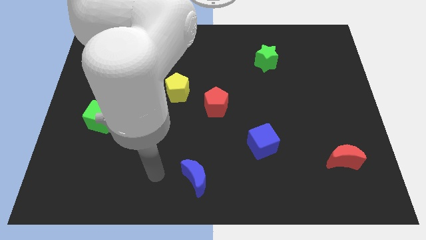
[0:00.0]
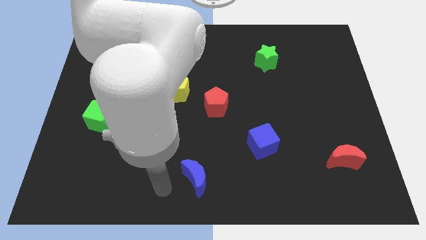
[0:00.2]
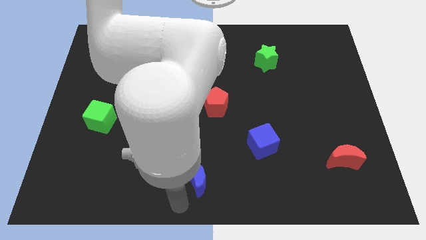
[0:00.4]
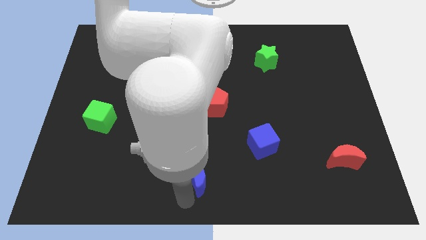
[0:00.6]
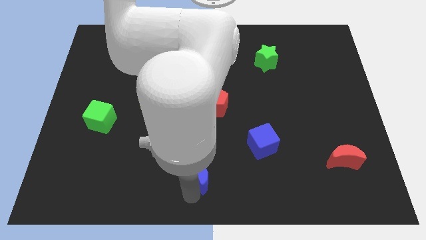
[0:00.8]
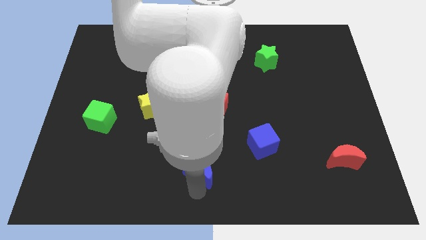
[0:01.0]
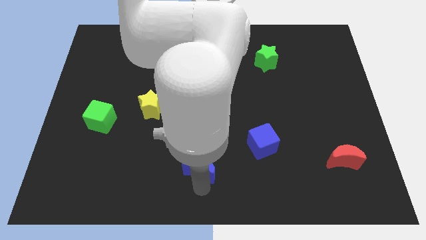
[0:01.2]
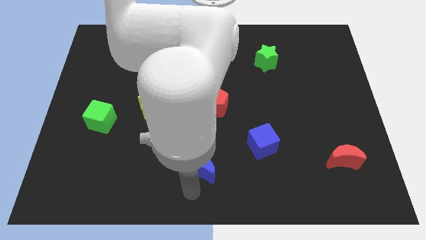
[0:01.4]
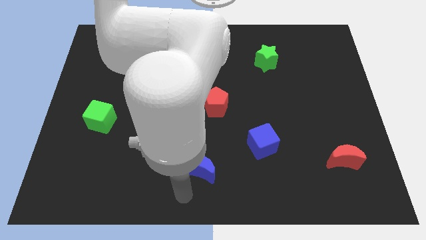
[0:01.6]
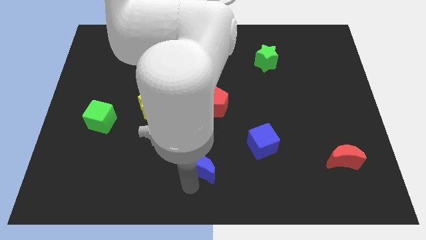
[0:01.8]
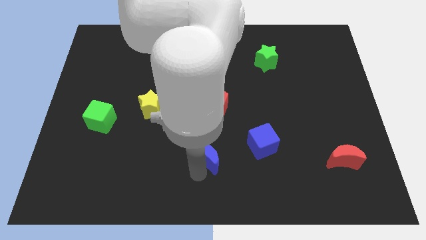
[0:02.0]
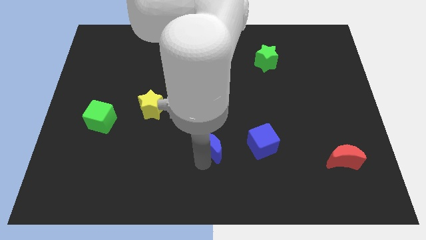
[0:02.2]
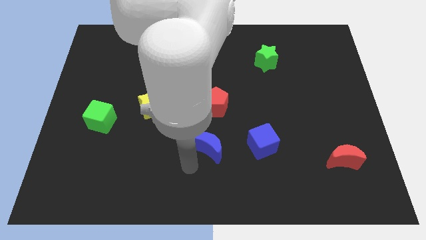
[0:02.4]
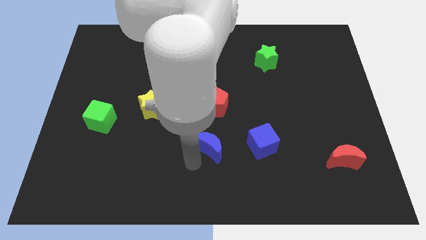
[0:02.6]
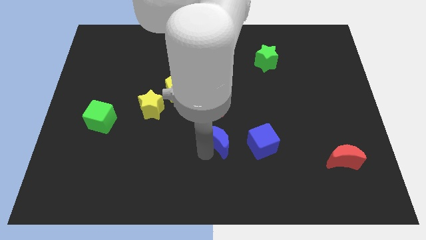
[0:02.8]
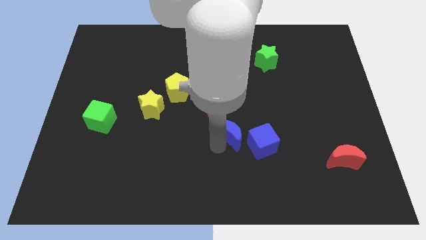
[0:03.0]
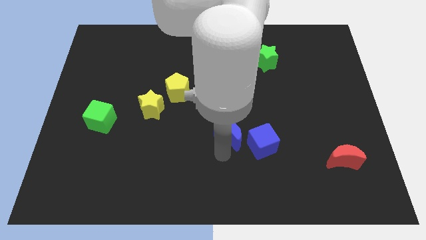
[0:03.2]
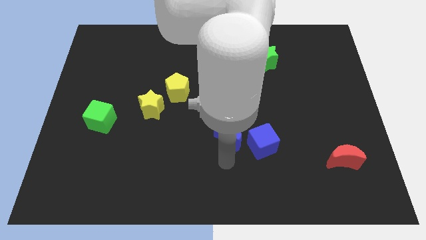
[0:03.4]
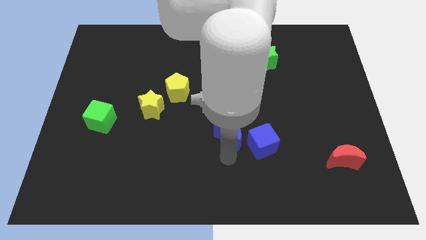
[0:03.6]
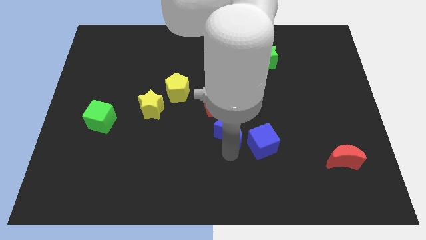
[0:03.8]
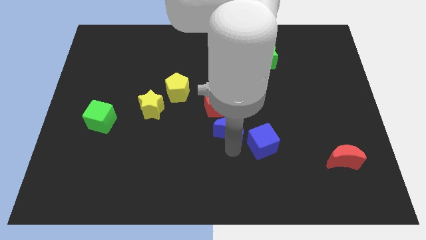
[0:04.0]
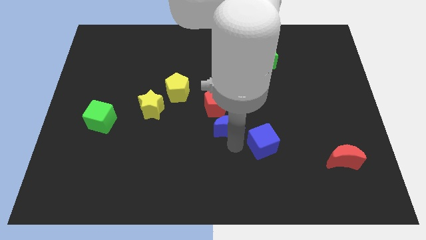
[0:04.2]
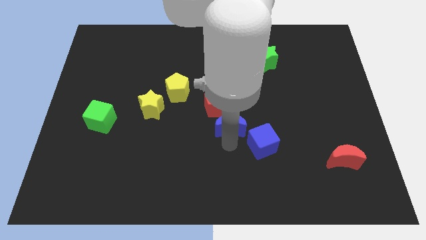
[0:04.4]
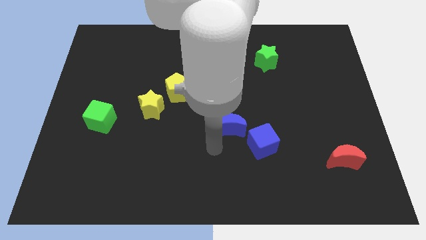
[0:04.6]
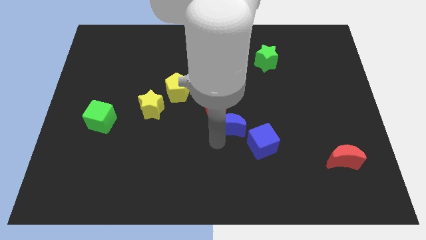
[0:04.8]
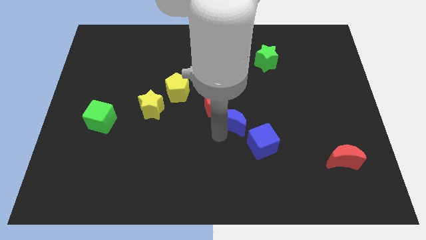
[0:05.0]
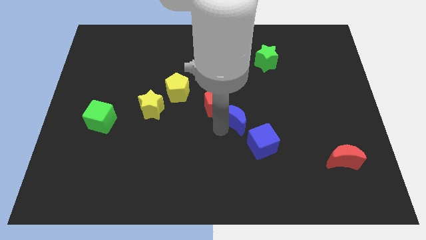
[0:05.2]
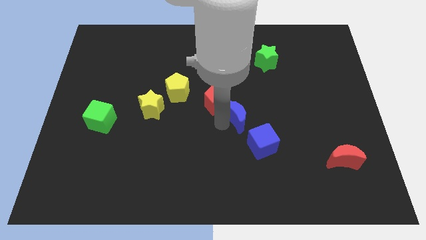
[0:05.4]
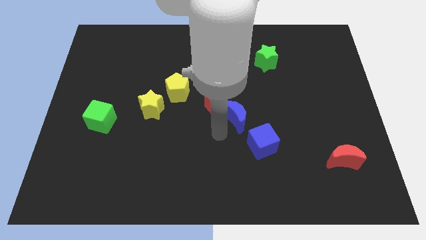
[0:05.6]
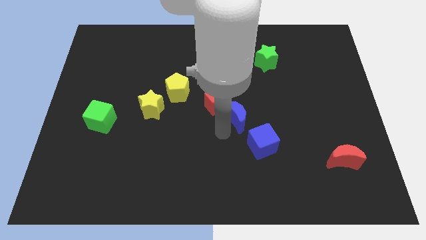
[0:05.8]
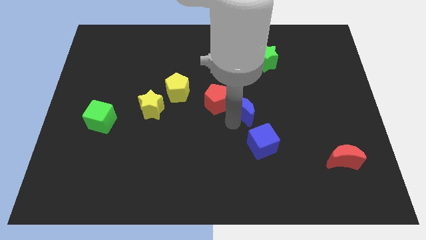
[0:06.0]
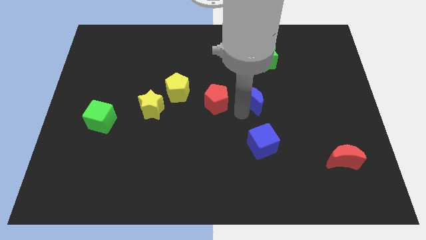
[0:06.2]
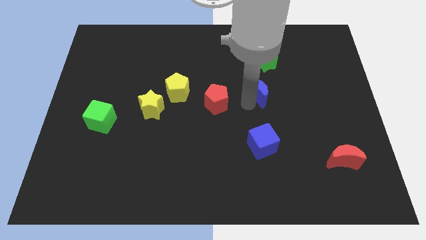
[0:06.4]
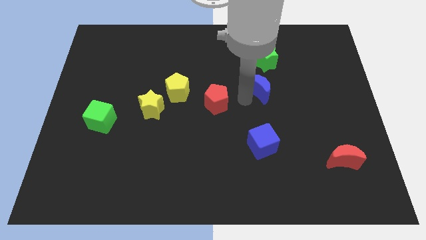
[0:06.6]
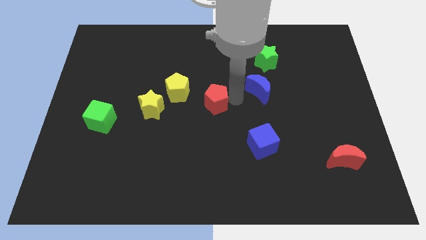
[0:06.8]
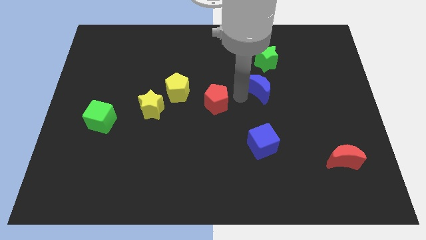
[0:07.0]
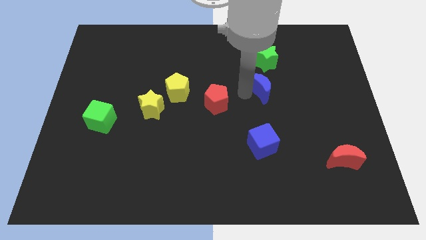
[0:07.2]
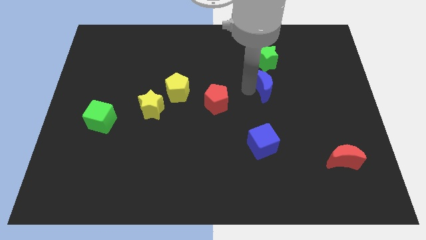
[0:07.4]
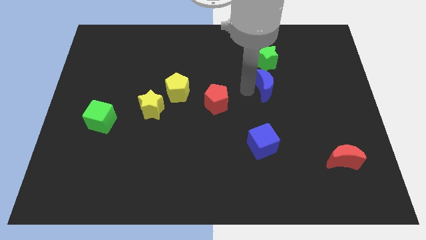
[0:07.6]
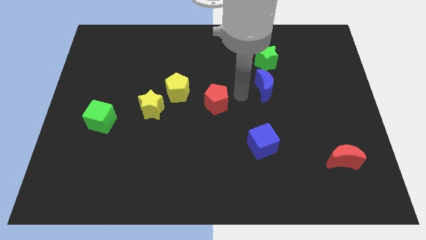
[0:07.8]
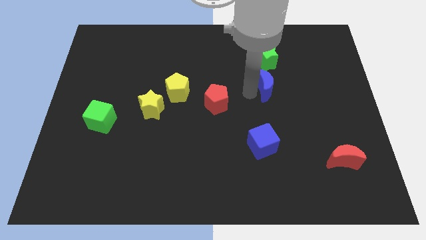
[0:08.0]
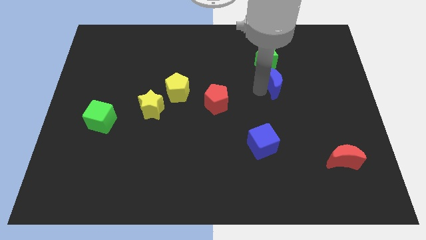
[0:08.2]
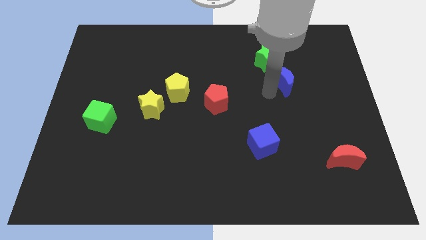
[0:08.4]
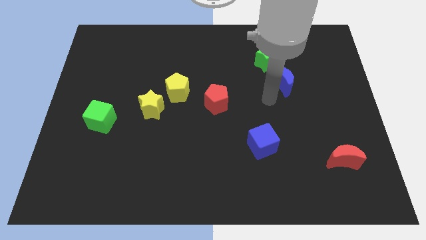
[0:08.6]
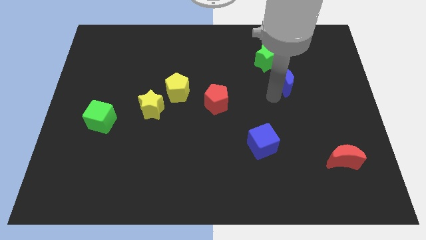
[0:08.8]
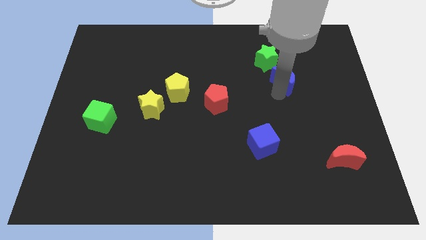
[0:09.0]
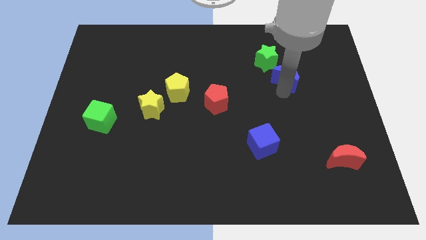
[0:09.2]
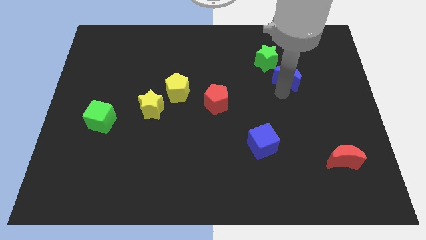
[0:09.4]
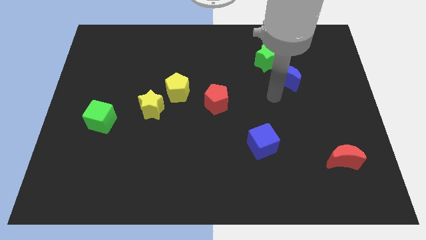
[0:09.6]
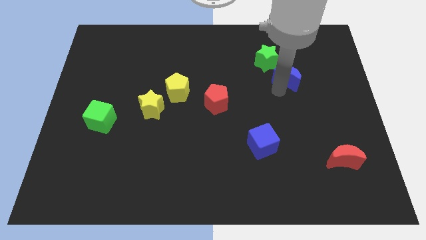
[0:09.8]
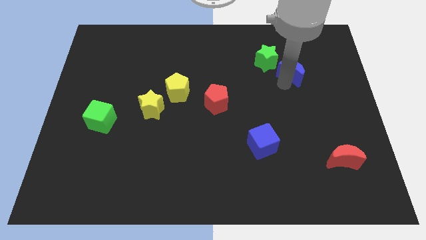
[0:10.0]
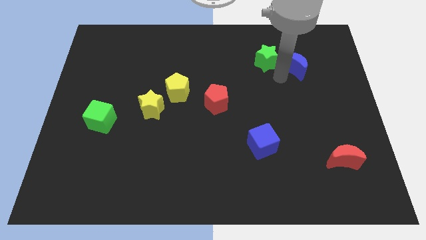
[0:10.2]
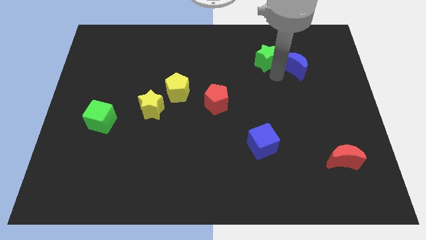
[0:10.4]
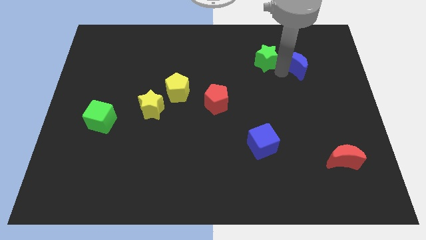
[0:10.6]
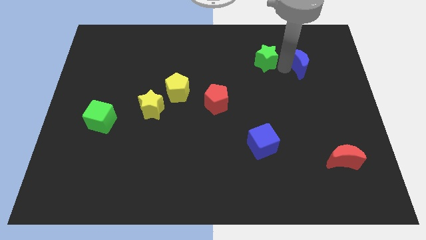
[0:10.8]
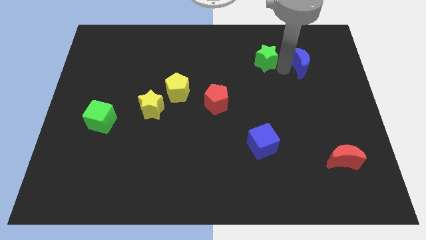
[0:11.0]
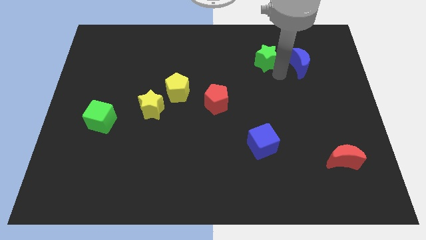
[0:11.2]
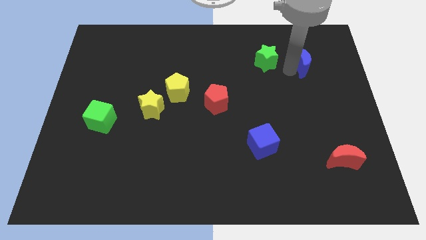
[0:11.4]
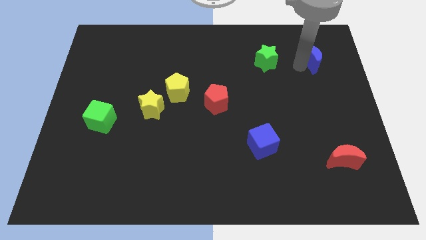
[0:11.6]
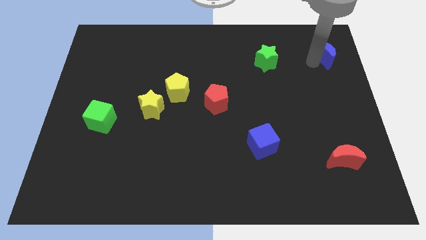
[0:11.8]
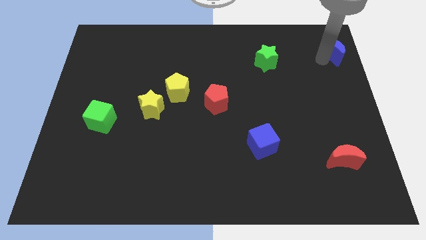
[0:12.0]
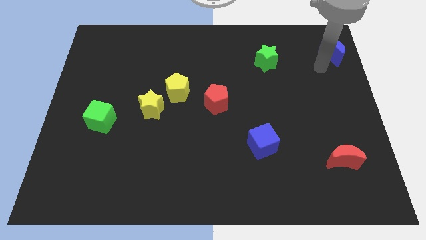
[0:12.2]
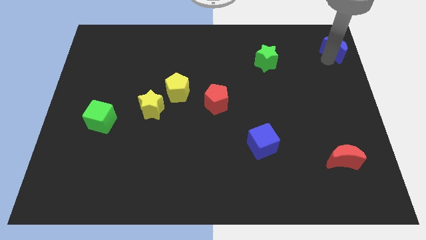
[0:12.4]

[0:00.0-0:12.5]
put the blue moon to the upper right corner

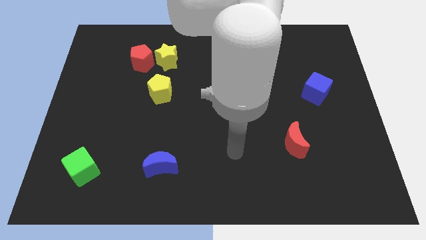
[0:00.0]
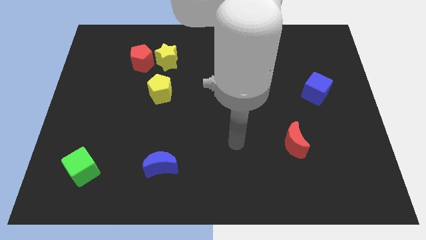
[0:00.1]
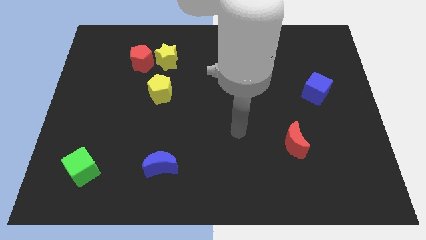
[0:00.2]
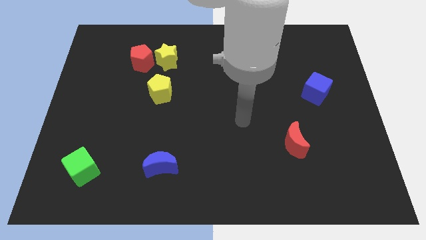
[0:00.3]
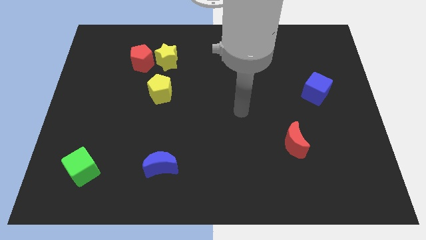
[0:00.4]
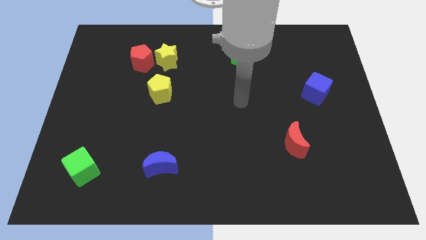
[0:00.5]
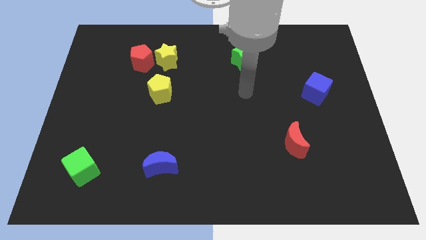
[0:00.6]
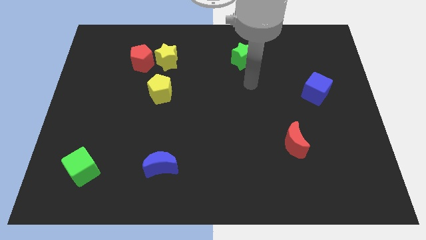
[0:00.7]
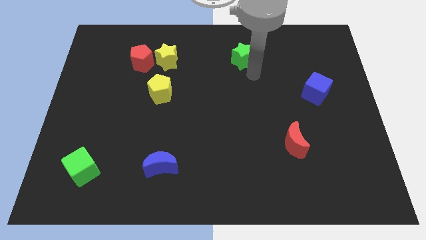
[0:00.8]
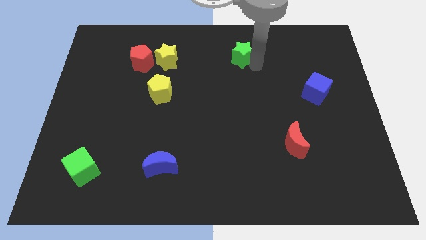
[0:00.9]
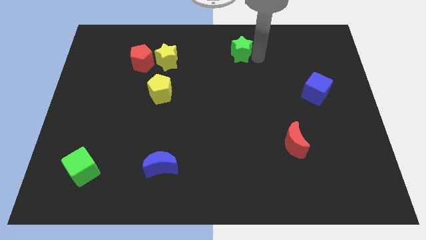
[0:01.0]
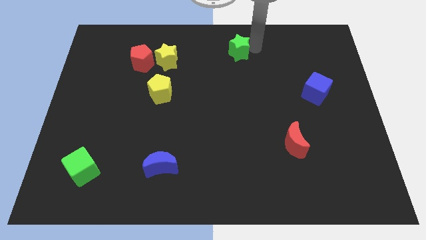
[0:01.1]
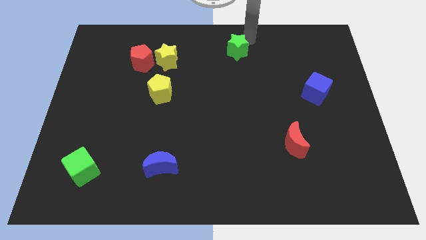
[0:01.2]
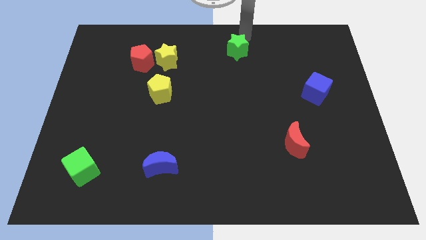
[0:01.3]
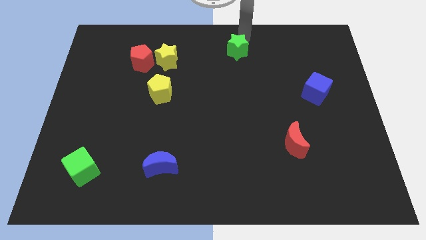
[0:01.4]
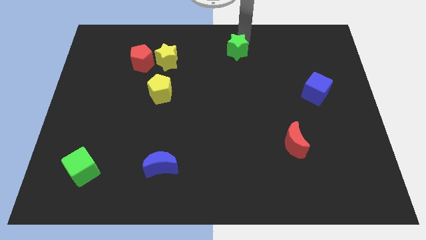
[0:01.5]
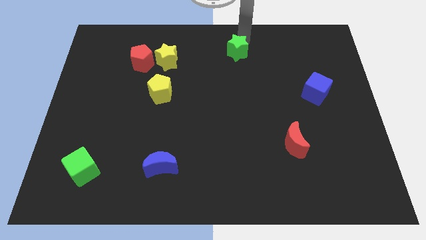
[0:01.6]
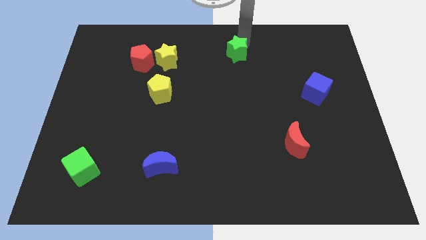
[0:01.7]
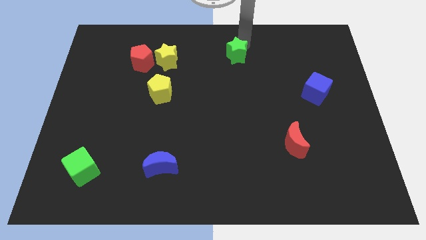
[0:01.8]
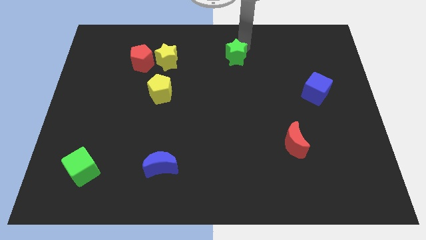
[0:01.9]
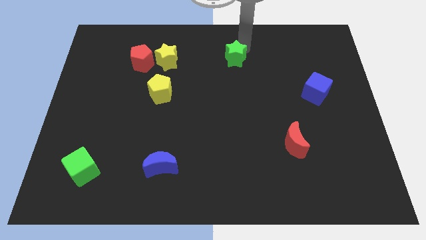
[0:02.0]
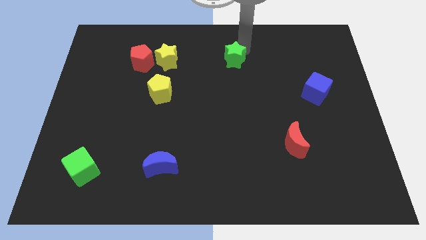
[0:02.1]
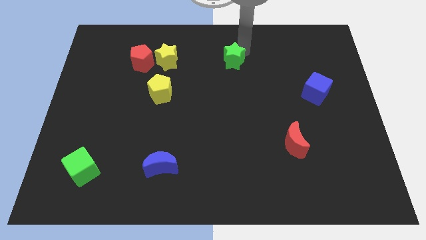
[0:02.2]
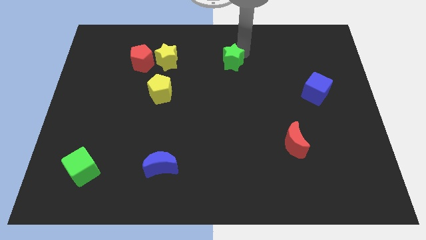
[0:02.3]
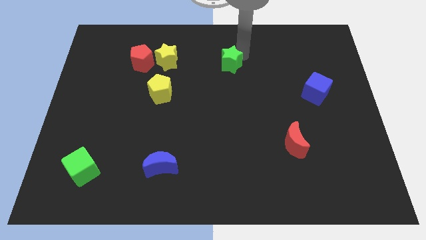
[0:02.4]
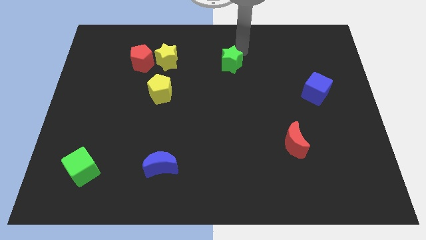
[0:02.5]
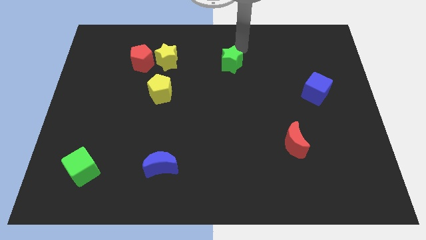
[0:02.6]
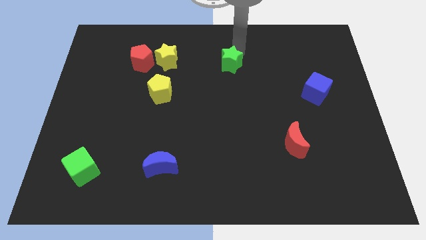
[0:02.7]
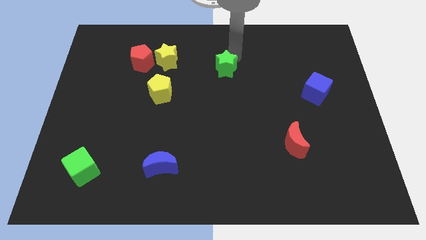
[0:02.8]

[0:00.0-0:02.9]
push the green star to the center
